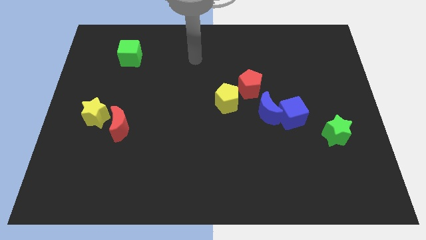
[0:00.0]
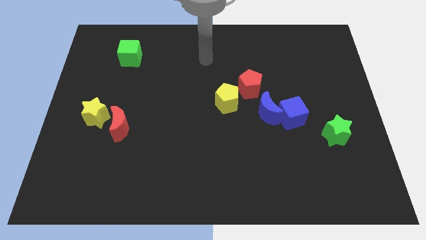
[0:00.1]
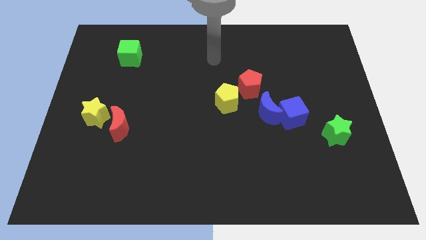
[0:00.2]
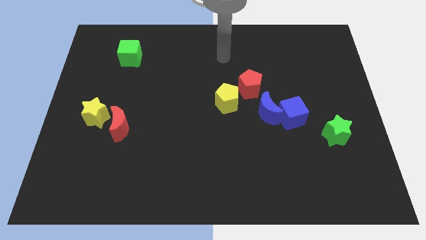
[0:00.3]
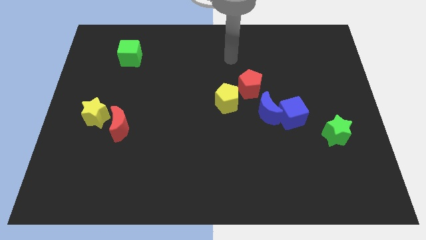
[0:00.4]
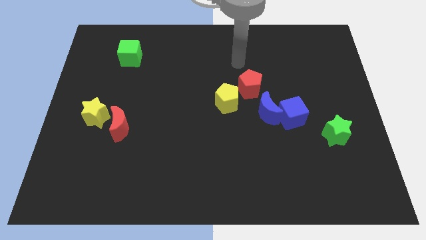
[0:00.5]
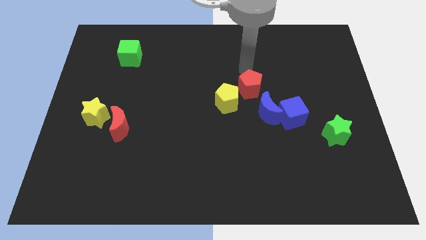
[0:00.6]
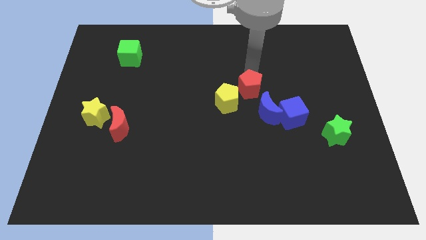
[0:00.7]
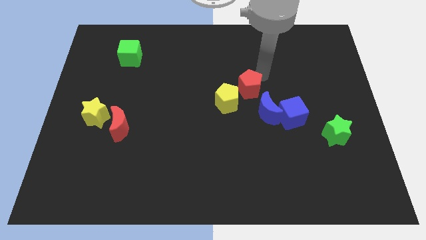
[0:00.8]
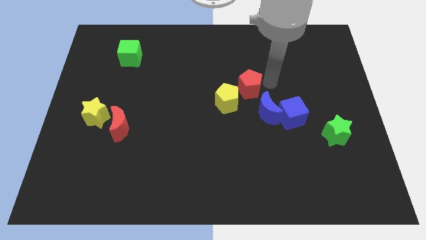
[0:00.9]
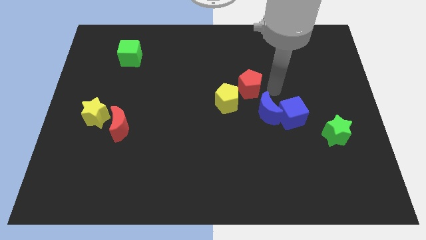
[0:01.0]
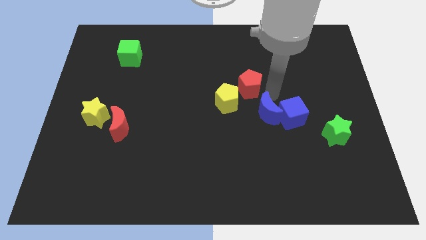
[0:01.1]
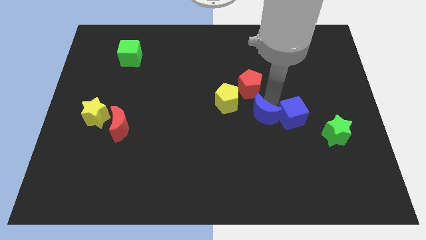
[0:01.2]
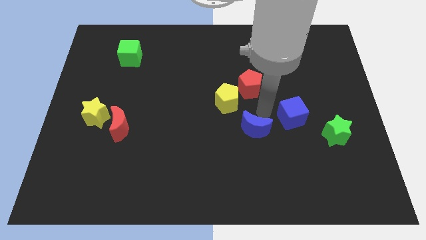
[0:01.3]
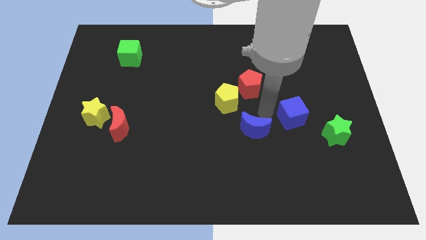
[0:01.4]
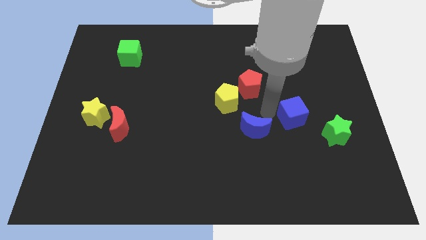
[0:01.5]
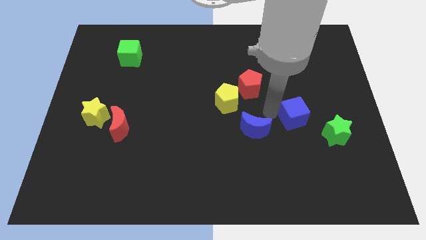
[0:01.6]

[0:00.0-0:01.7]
separate the blue cube from the blue moon

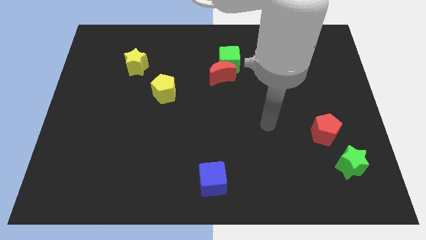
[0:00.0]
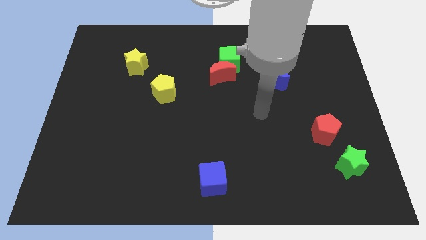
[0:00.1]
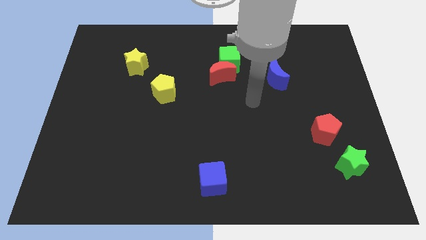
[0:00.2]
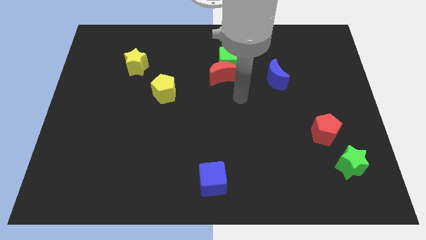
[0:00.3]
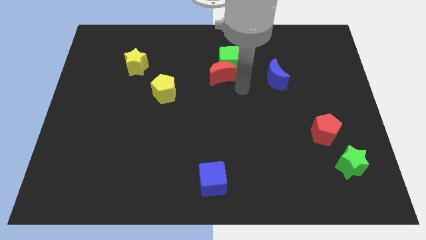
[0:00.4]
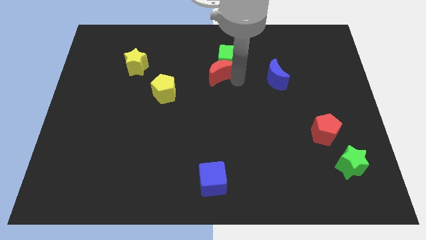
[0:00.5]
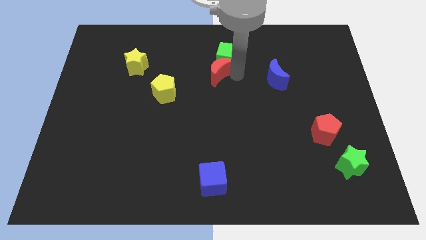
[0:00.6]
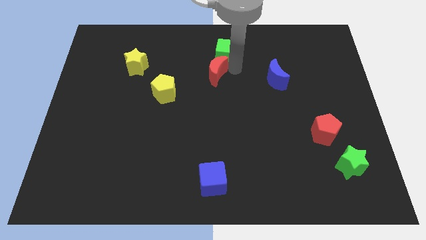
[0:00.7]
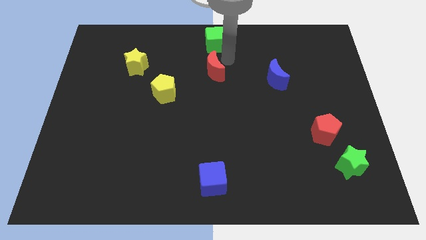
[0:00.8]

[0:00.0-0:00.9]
pull the red moon apart from the green cube

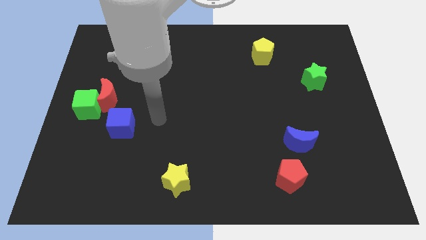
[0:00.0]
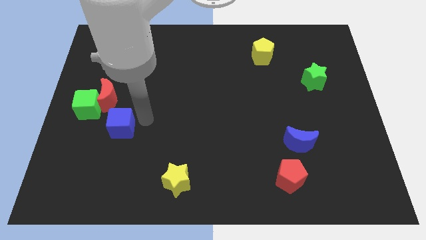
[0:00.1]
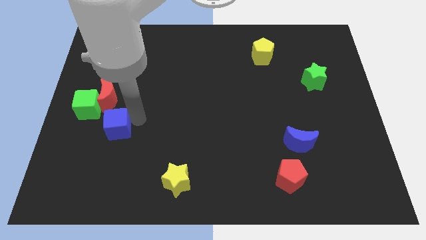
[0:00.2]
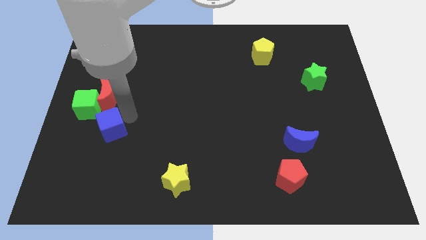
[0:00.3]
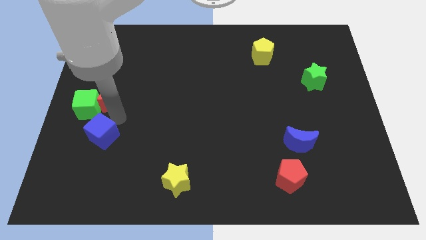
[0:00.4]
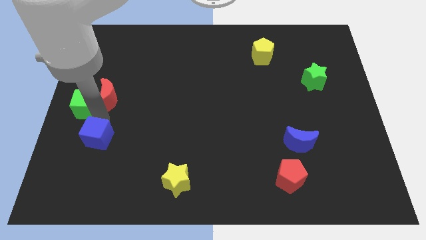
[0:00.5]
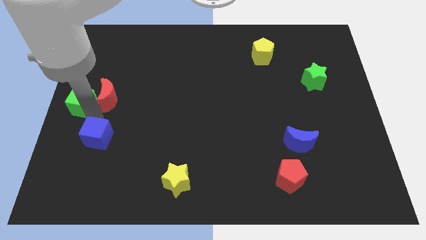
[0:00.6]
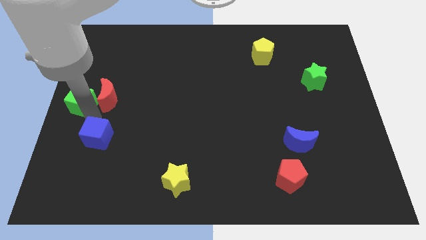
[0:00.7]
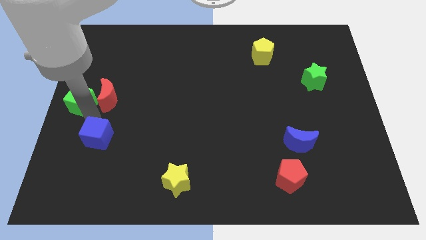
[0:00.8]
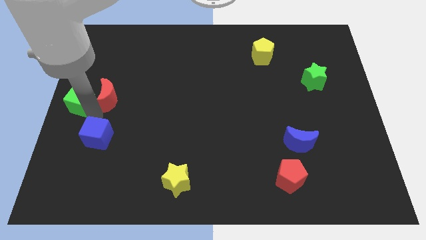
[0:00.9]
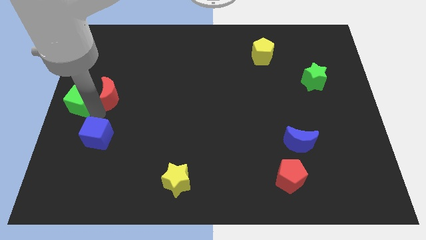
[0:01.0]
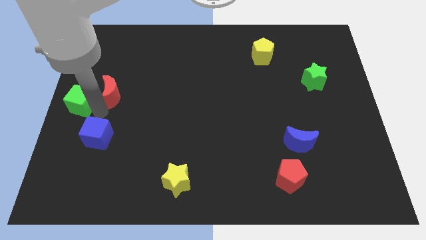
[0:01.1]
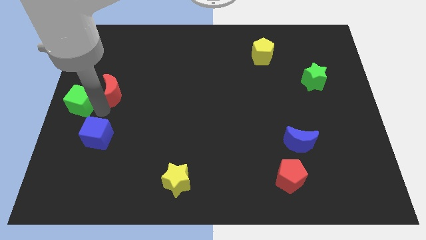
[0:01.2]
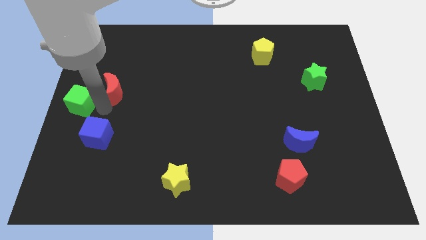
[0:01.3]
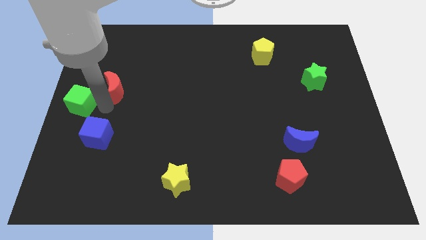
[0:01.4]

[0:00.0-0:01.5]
move the red moon away from the green cube and blue cube

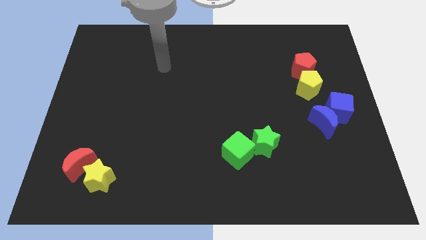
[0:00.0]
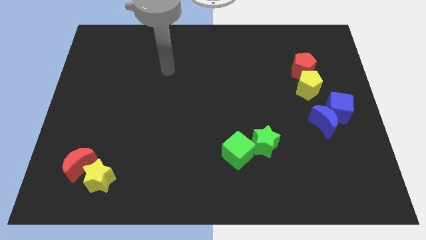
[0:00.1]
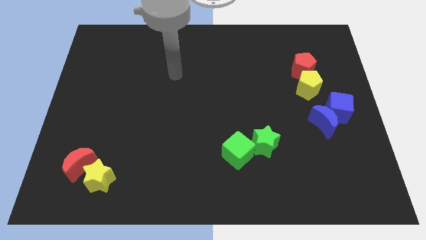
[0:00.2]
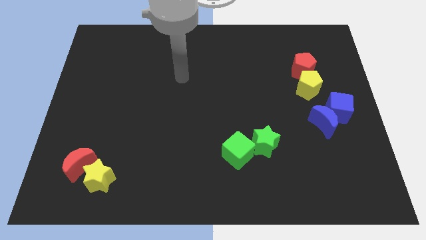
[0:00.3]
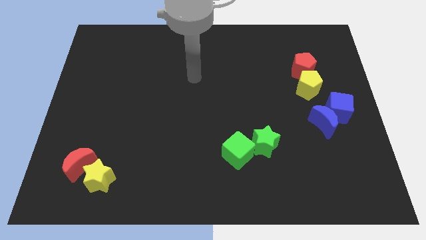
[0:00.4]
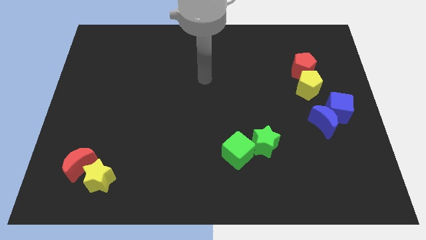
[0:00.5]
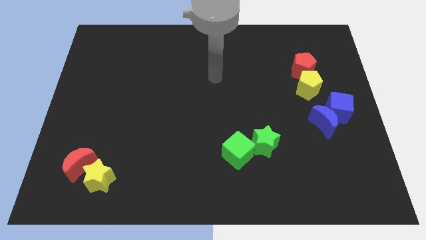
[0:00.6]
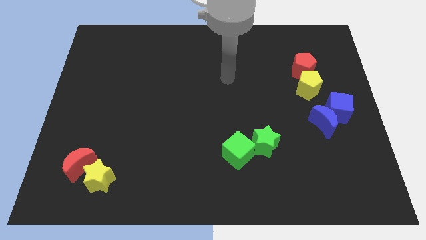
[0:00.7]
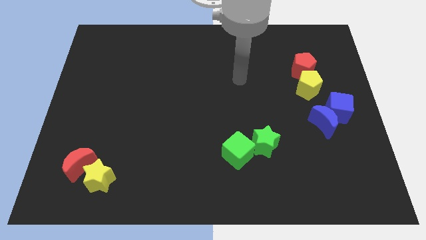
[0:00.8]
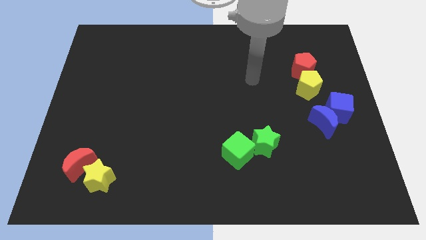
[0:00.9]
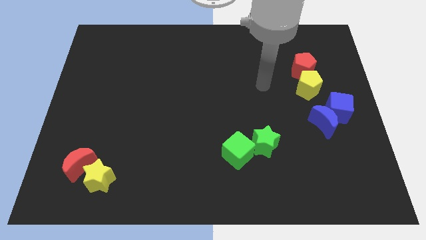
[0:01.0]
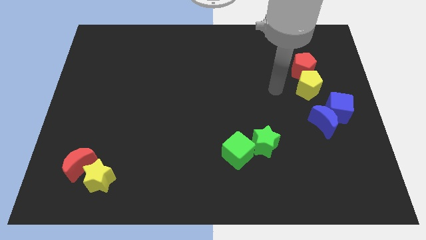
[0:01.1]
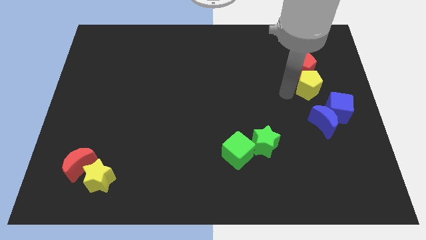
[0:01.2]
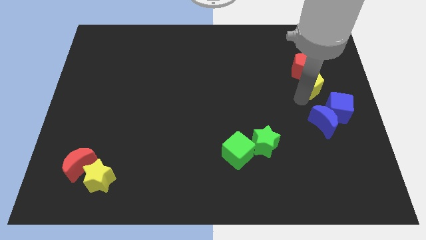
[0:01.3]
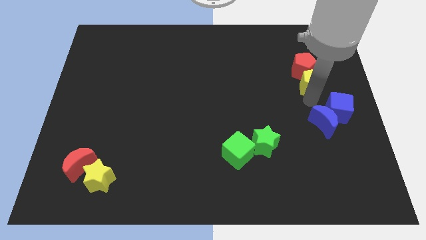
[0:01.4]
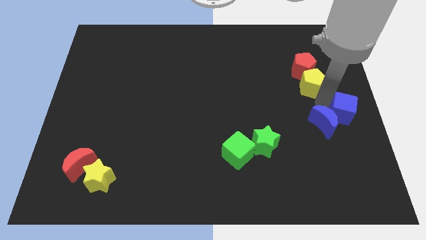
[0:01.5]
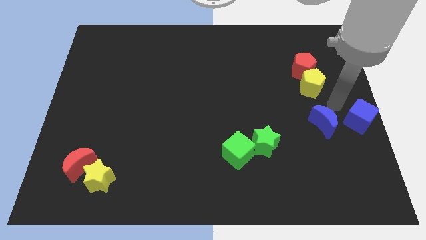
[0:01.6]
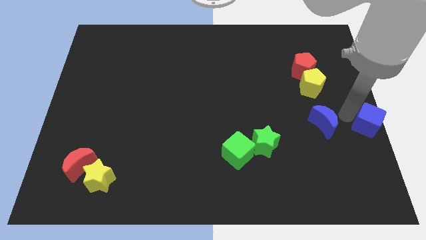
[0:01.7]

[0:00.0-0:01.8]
separate the blue moon from the blue cube

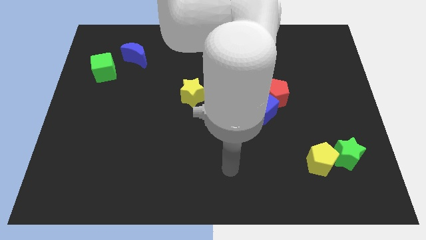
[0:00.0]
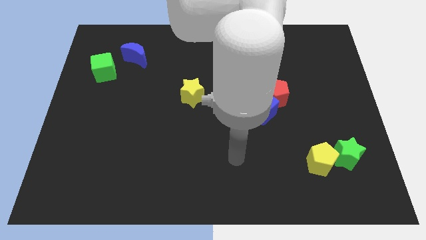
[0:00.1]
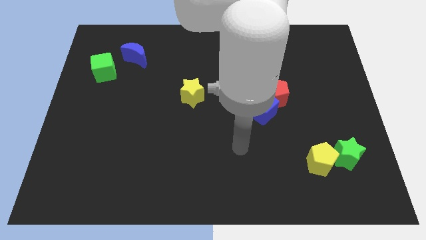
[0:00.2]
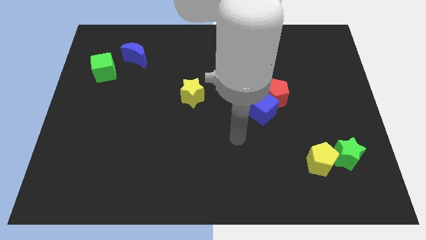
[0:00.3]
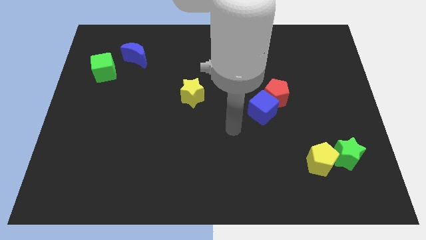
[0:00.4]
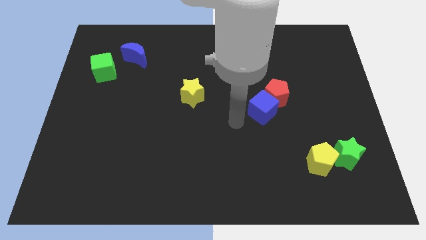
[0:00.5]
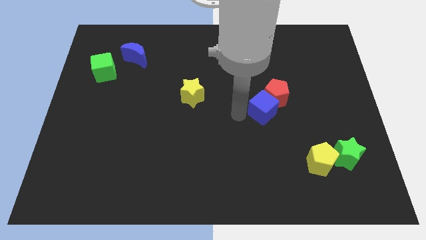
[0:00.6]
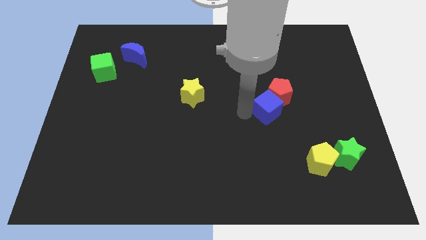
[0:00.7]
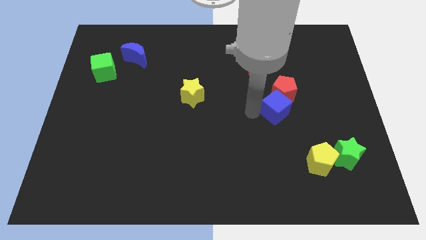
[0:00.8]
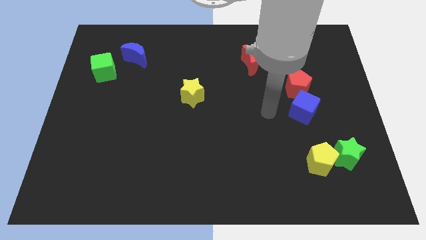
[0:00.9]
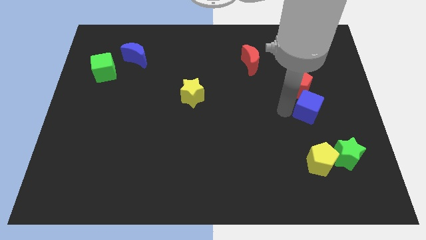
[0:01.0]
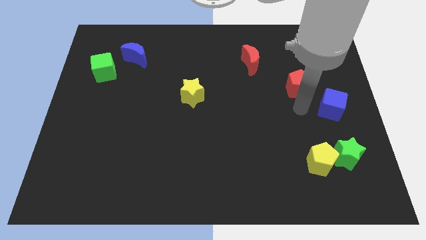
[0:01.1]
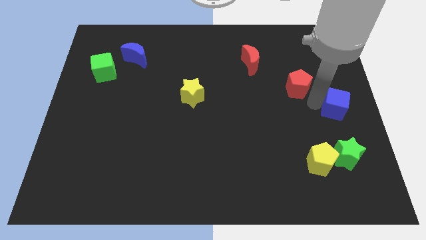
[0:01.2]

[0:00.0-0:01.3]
separate the red pentagon from the blue cube

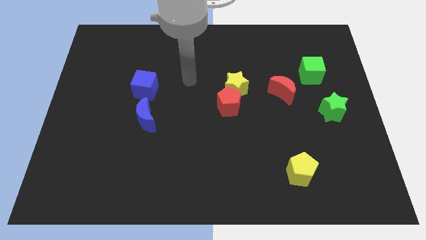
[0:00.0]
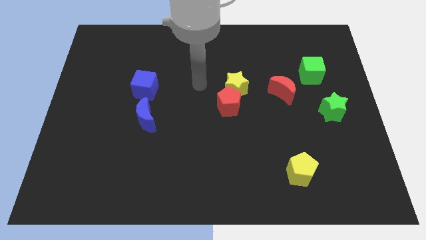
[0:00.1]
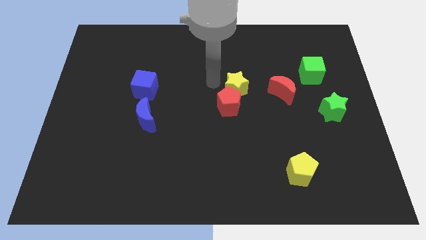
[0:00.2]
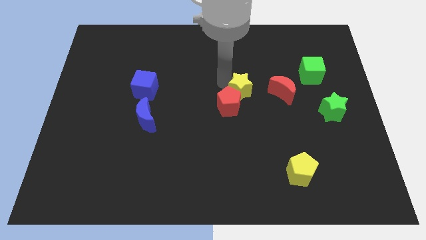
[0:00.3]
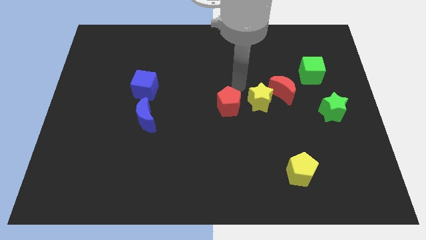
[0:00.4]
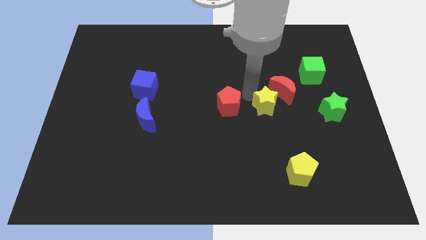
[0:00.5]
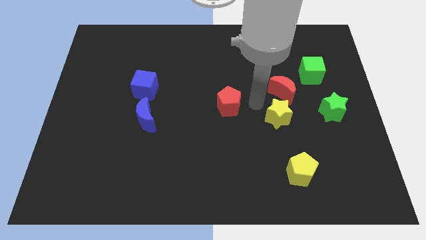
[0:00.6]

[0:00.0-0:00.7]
pull the red pentagon apart from the yellow star

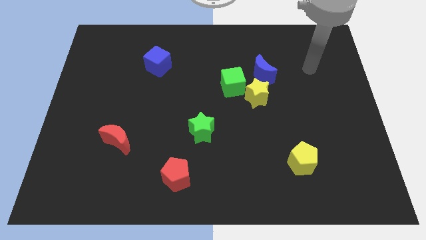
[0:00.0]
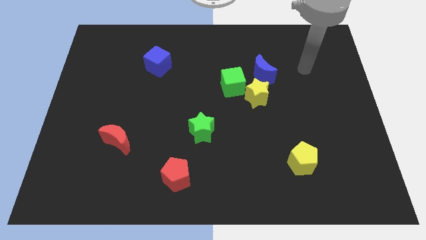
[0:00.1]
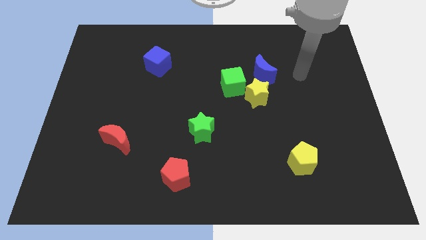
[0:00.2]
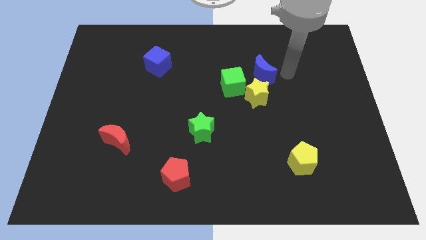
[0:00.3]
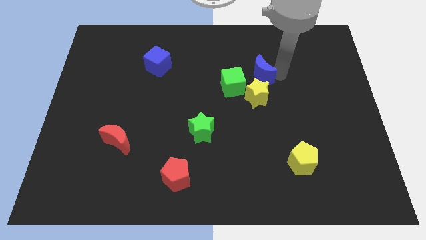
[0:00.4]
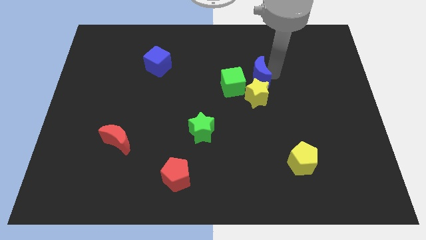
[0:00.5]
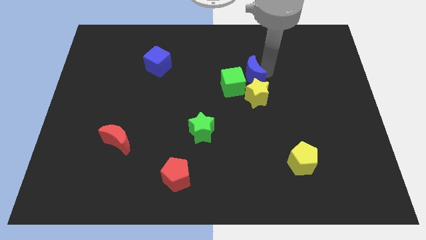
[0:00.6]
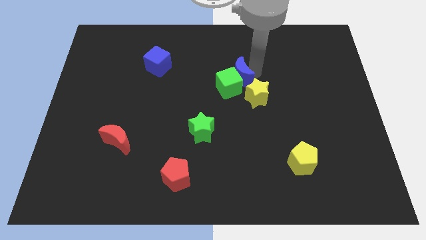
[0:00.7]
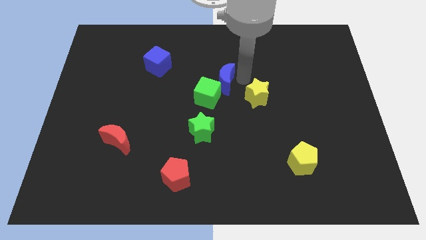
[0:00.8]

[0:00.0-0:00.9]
separate the yellow star from the green cube and blue moon

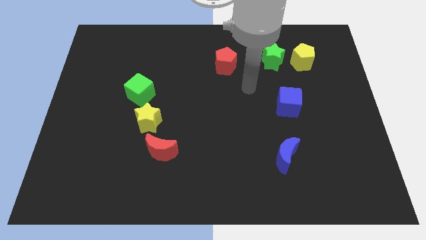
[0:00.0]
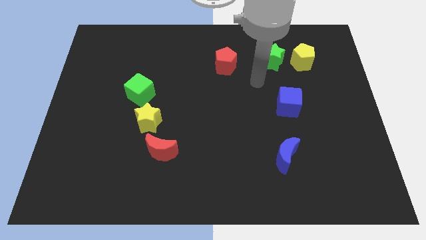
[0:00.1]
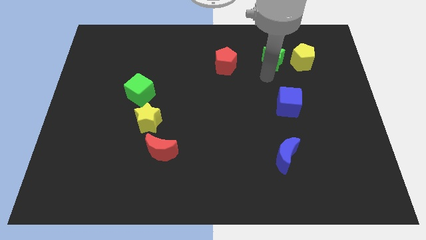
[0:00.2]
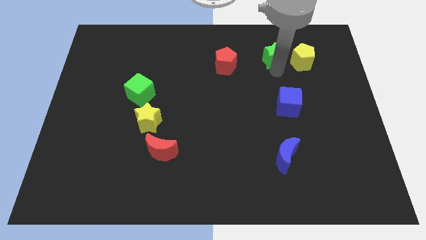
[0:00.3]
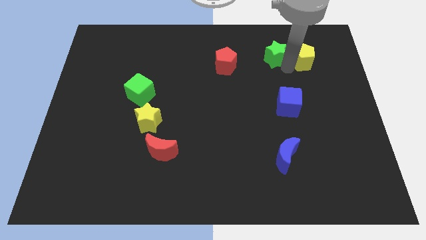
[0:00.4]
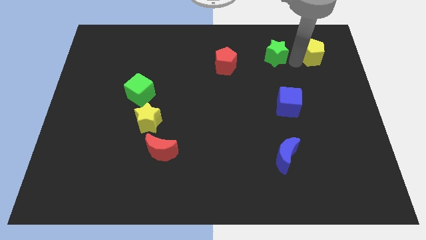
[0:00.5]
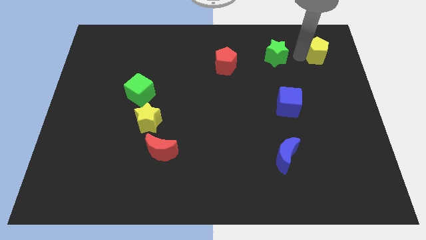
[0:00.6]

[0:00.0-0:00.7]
move the green star away from the yellow pentagon
